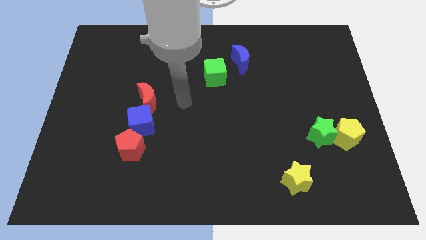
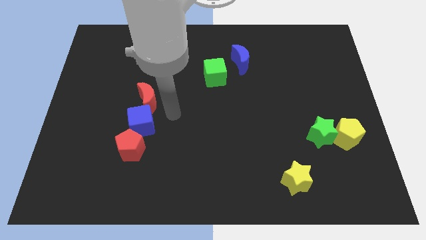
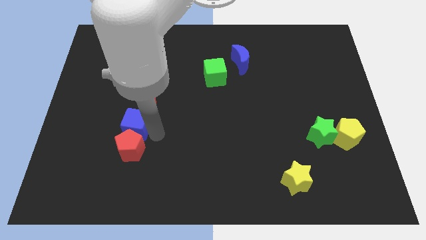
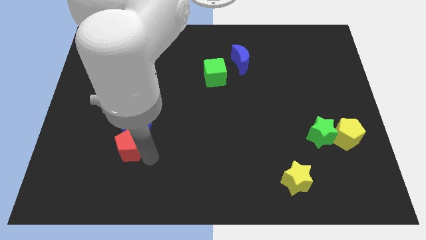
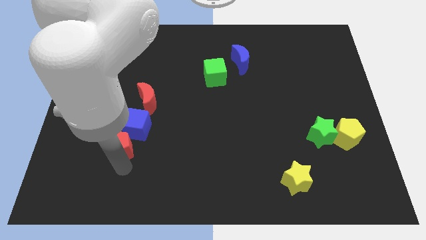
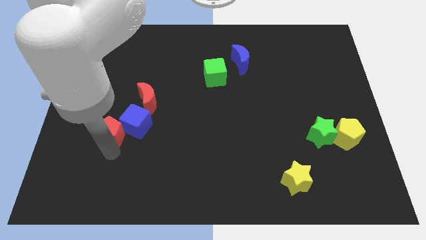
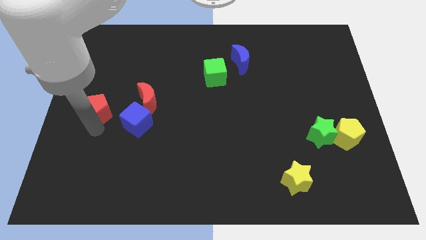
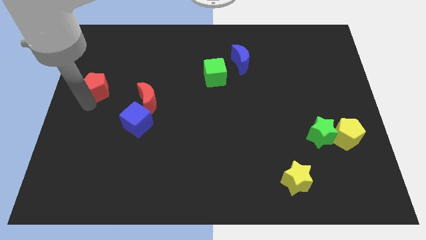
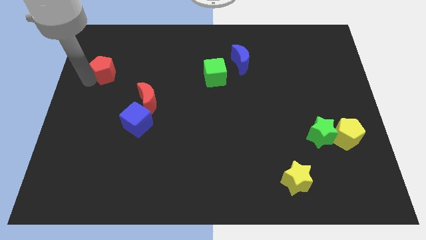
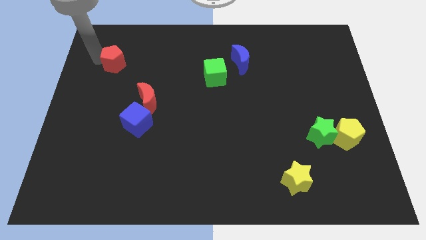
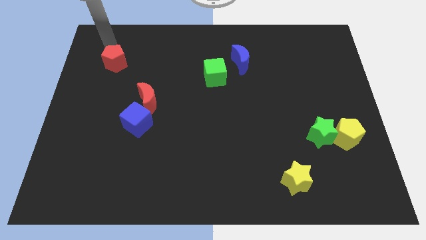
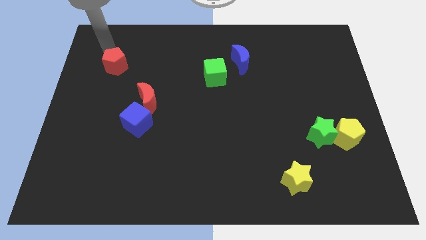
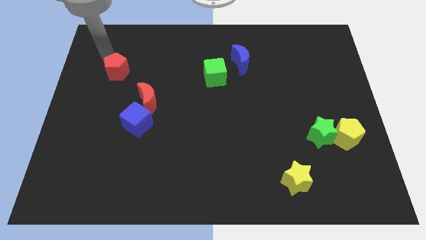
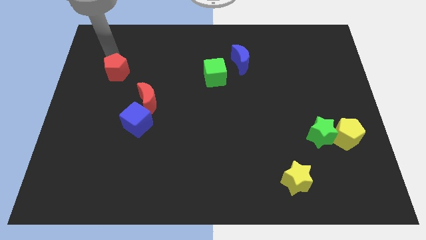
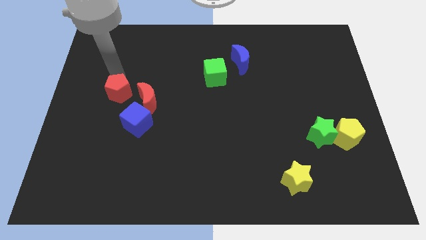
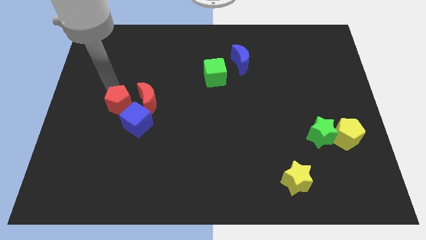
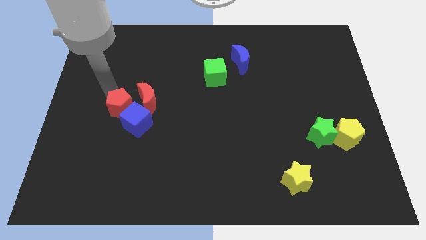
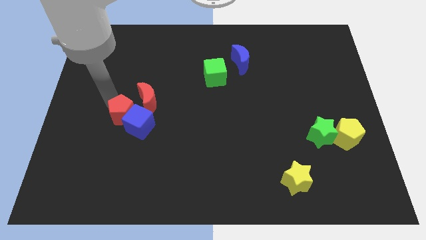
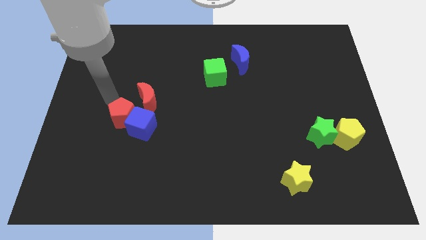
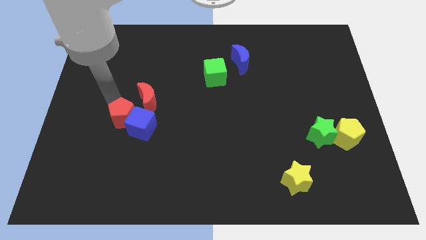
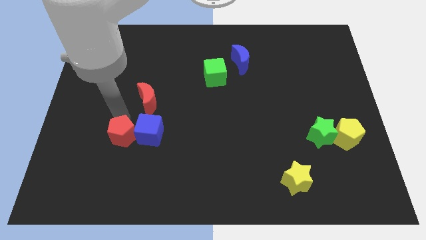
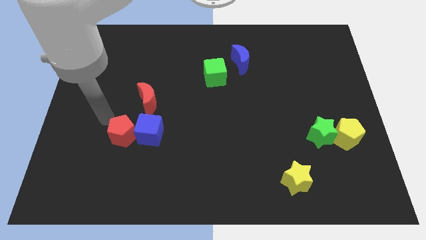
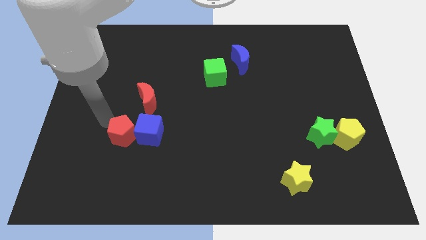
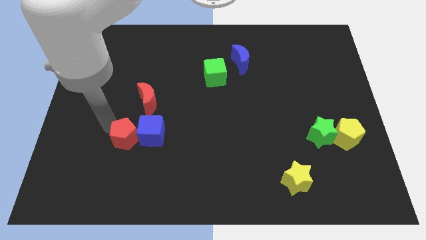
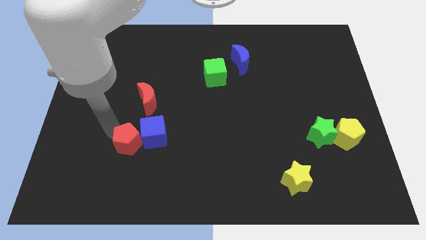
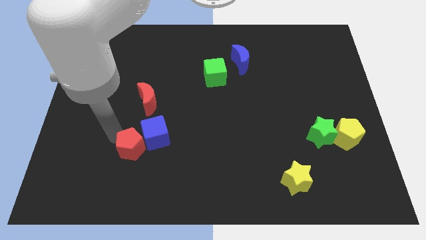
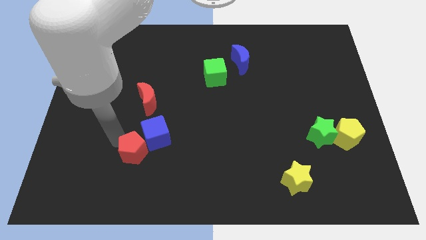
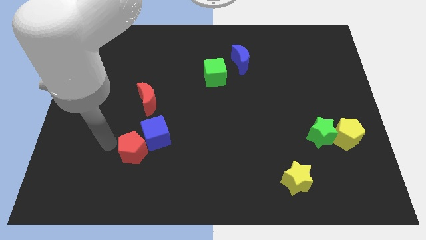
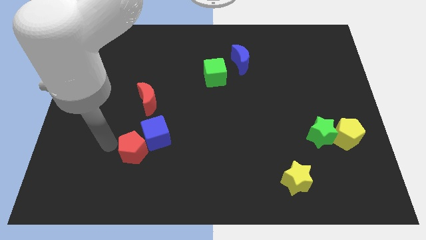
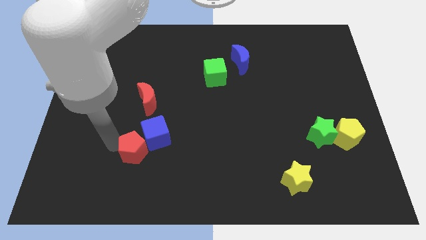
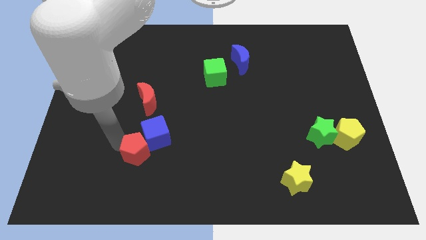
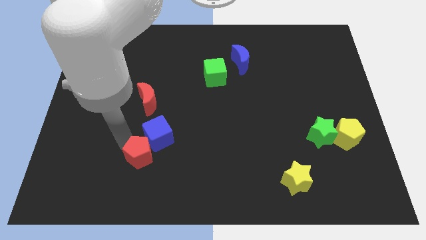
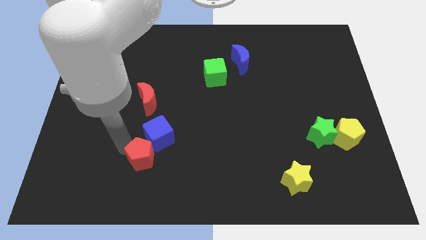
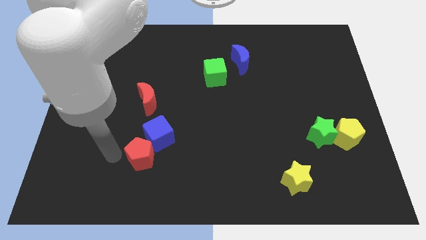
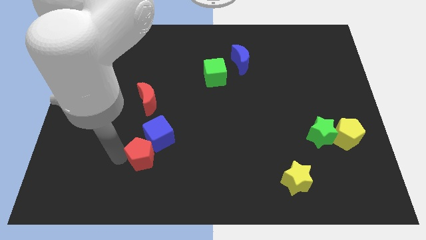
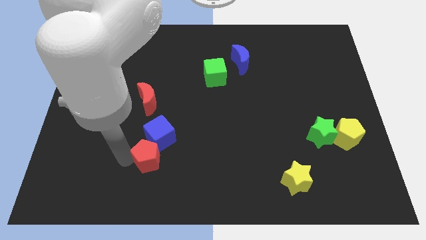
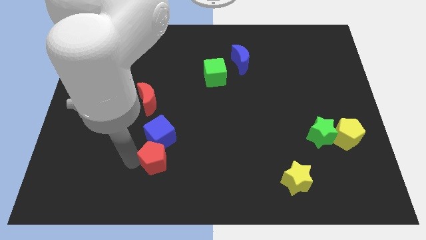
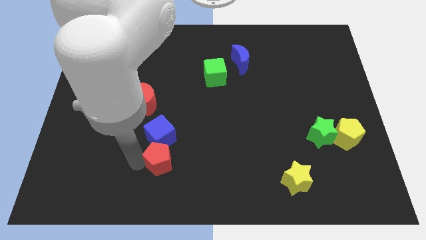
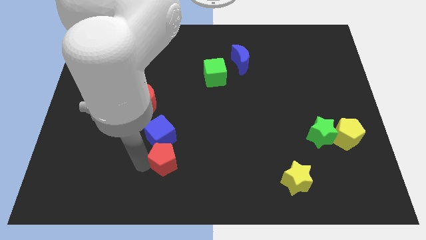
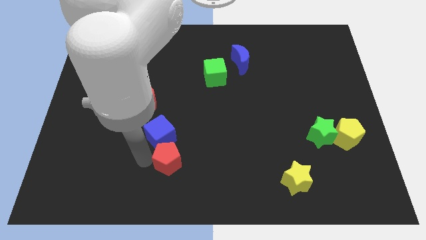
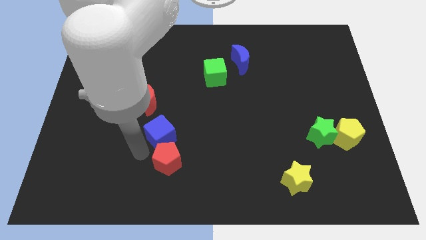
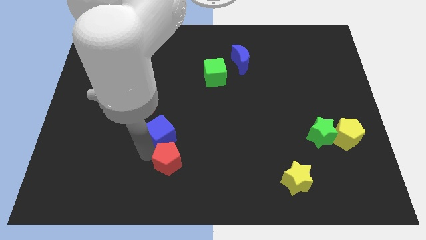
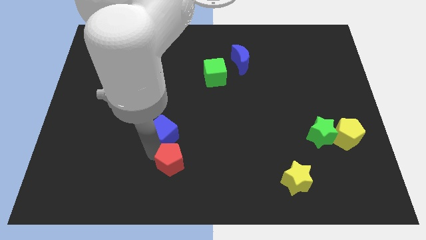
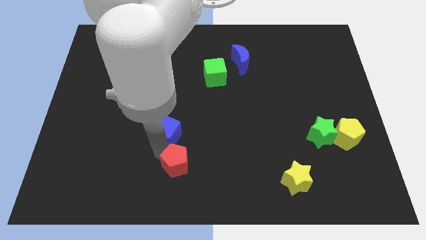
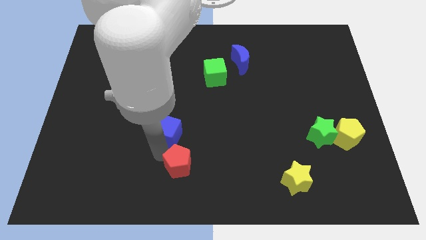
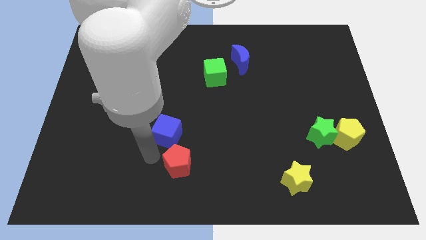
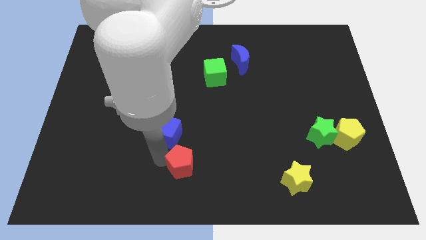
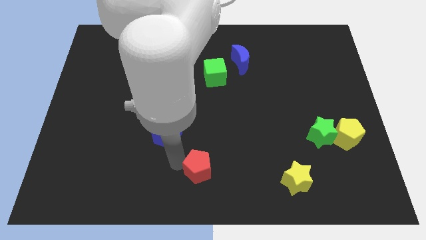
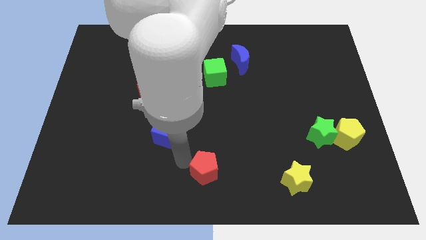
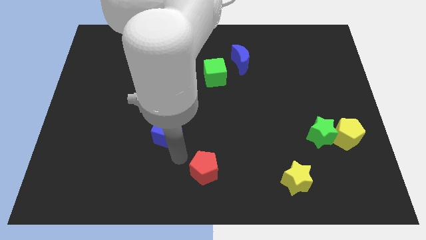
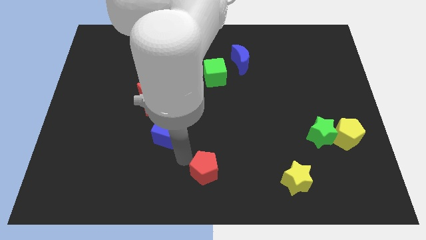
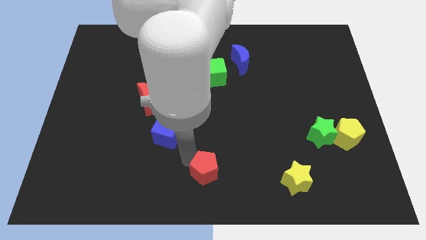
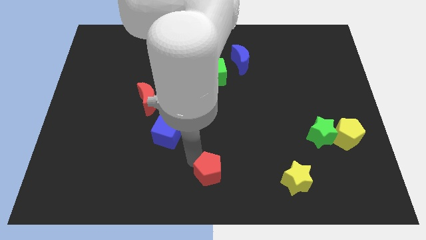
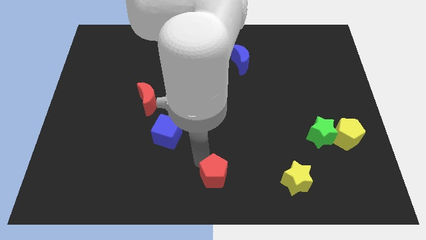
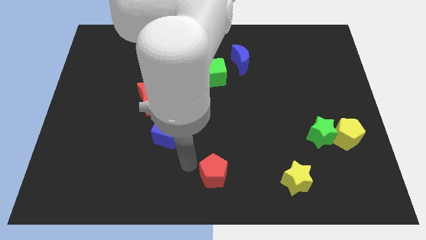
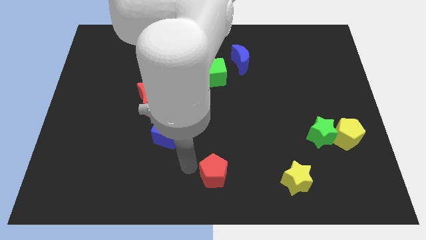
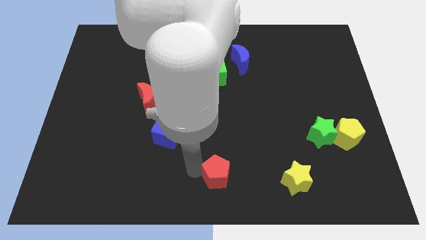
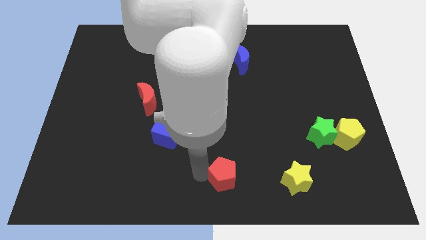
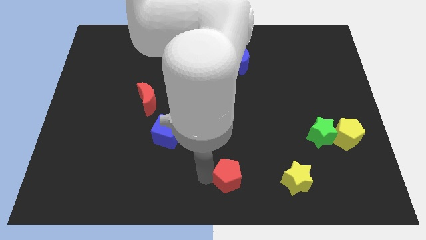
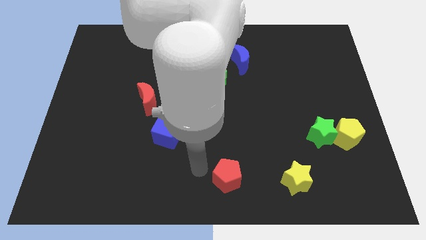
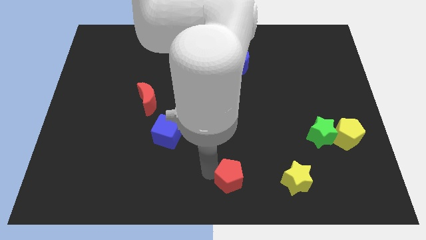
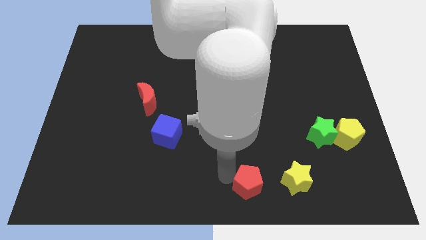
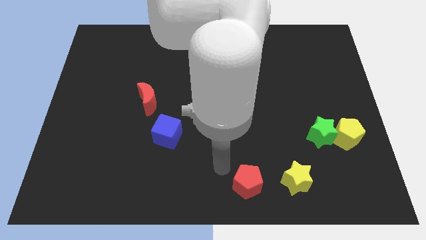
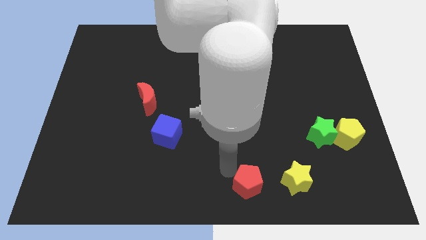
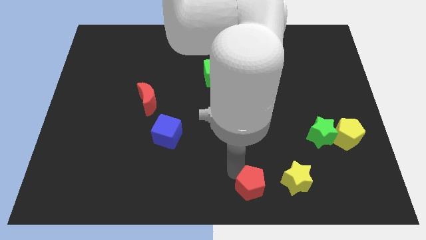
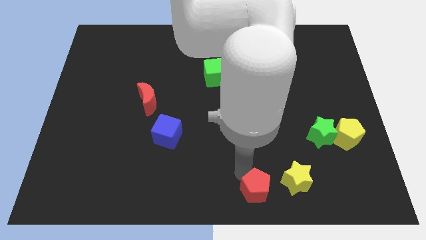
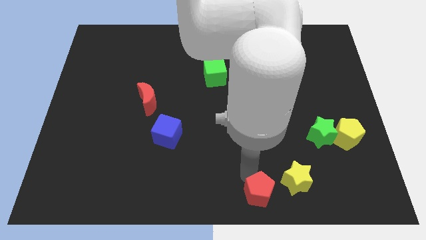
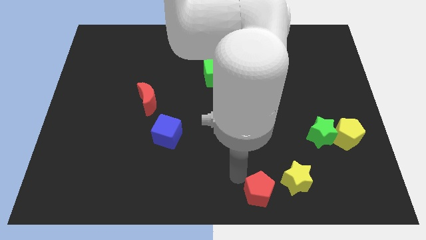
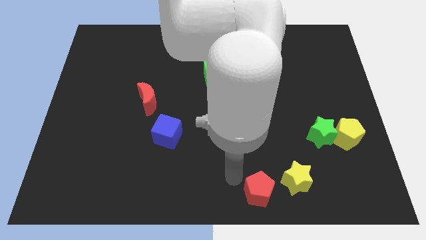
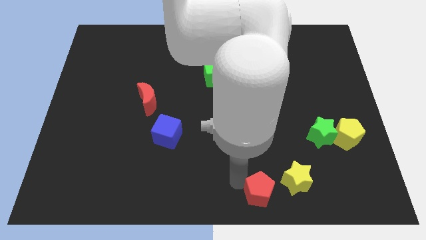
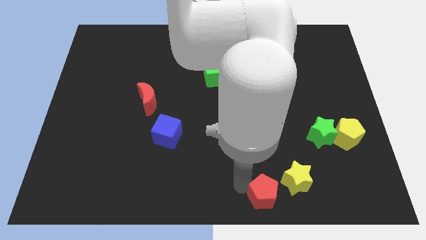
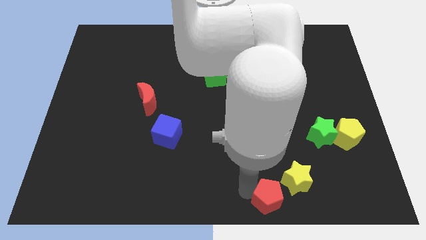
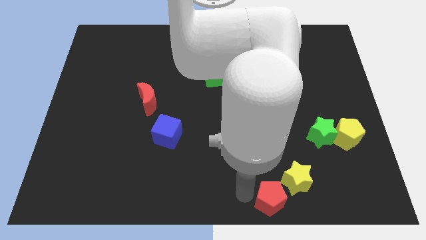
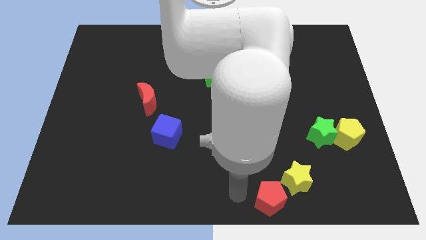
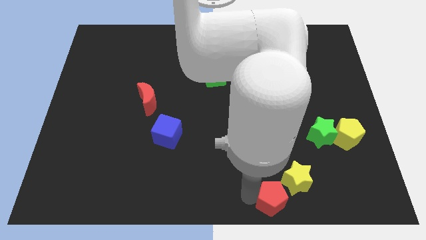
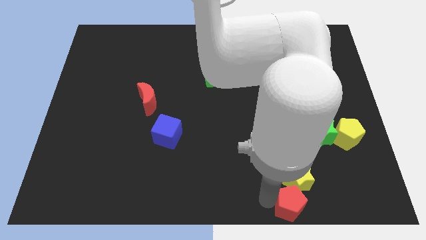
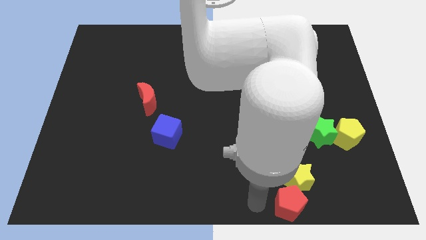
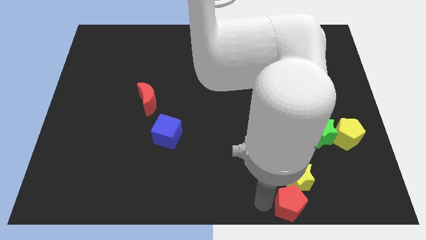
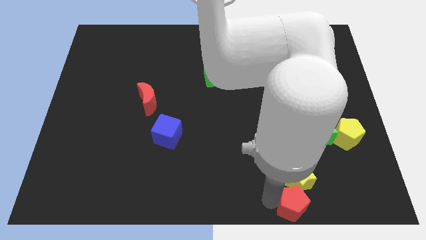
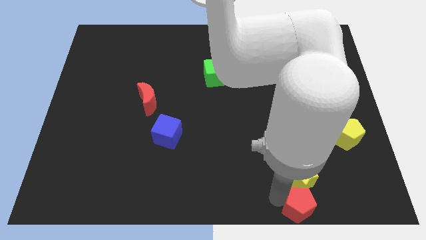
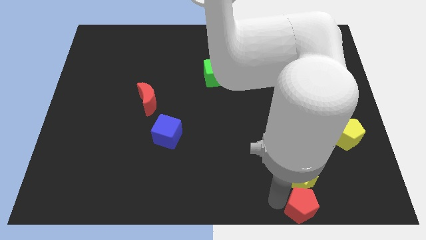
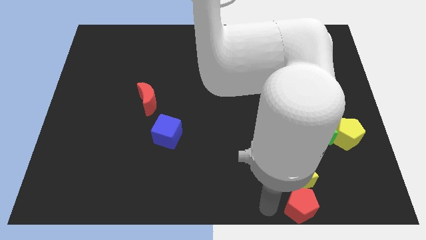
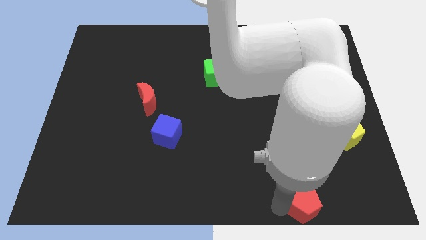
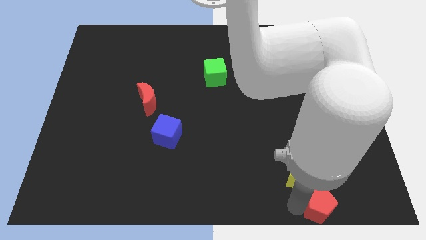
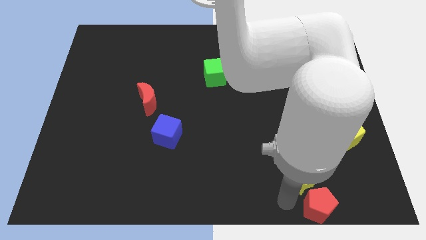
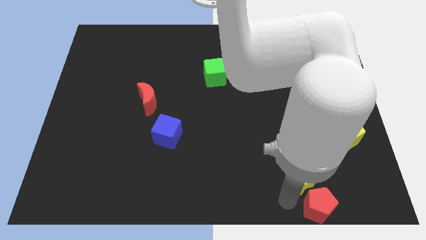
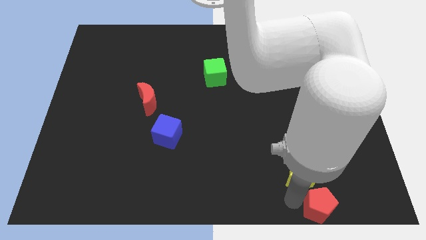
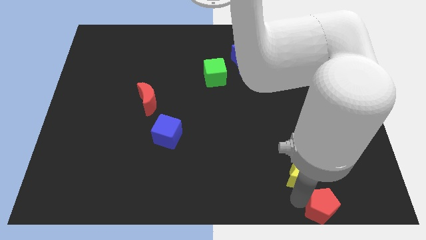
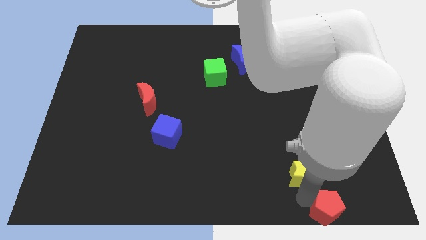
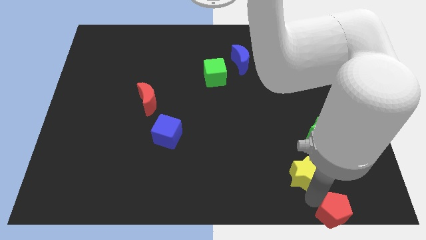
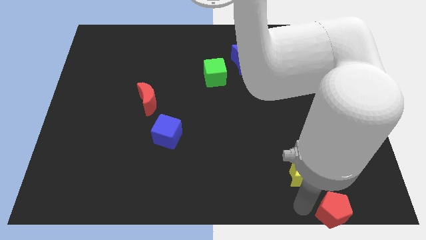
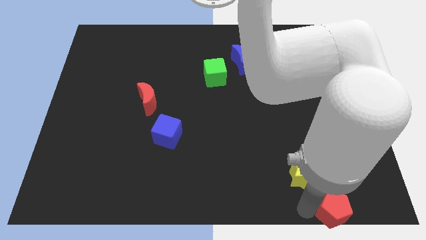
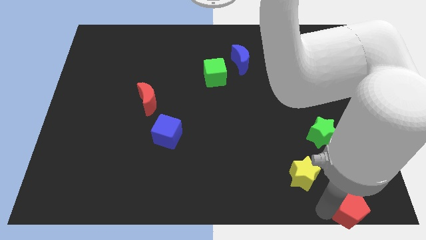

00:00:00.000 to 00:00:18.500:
move the red pentagon to the lower right corner
